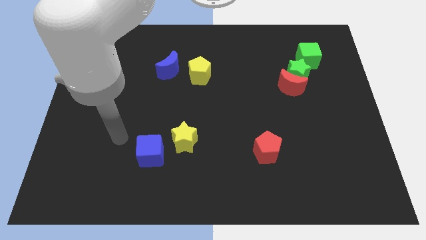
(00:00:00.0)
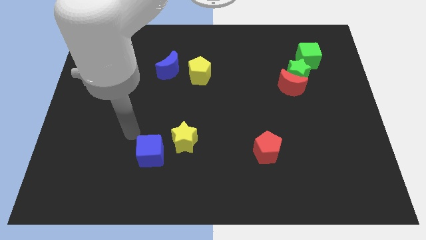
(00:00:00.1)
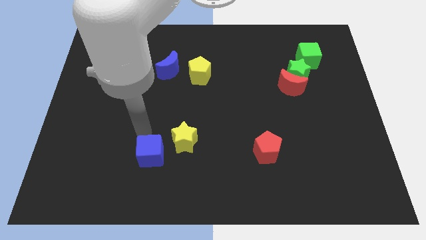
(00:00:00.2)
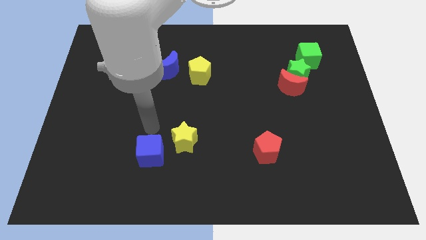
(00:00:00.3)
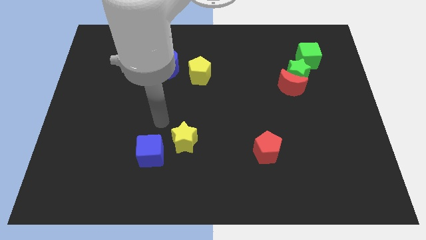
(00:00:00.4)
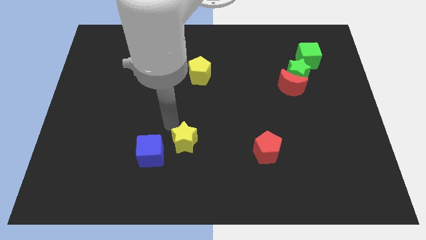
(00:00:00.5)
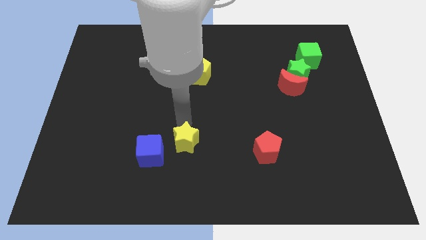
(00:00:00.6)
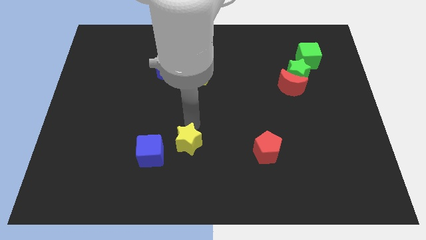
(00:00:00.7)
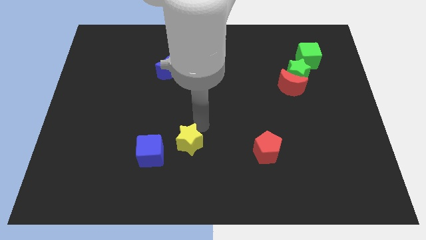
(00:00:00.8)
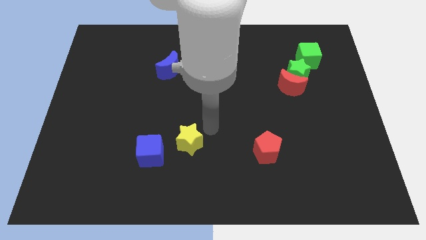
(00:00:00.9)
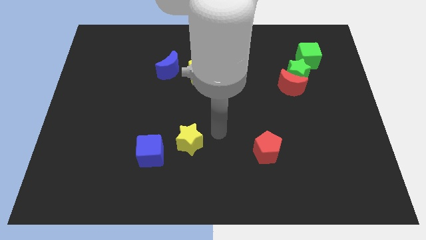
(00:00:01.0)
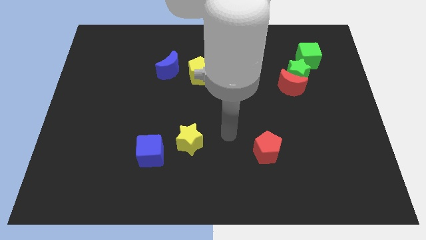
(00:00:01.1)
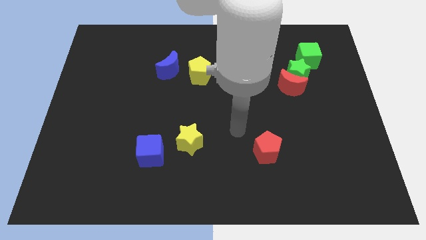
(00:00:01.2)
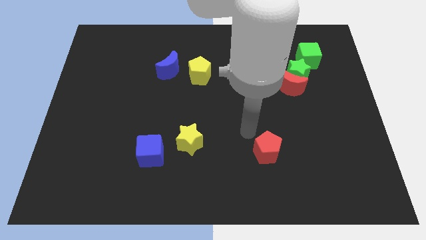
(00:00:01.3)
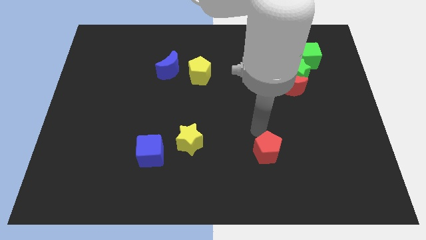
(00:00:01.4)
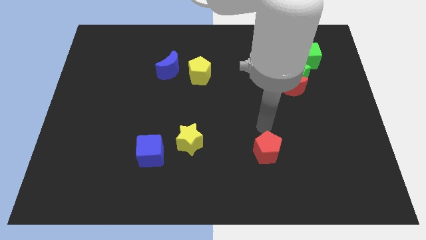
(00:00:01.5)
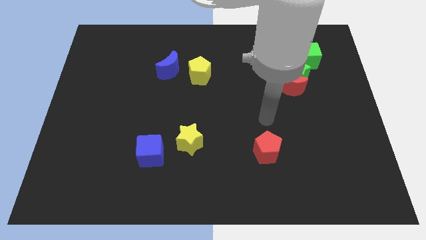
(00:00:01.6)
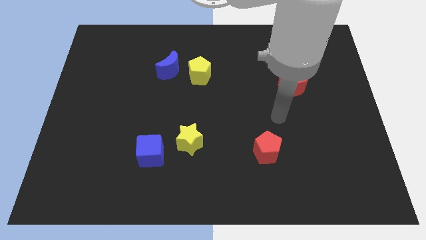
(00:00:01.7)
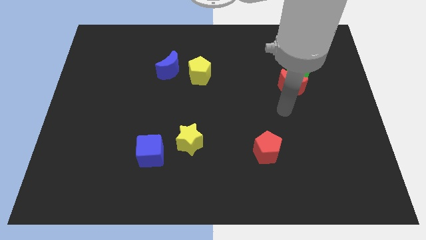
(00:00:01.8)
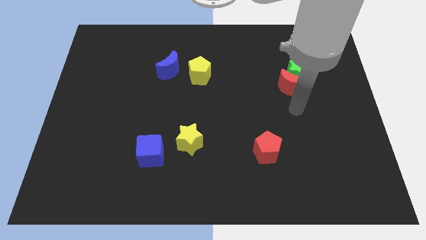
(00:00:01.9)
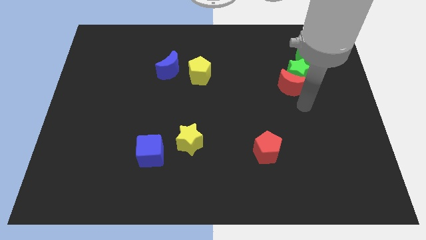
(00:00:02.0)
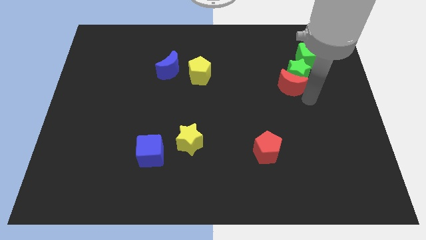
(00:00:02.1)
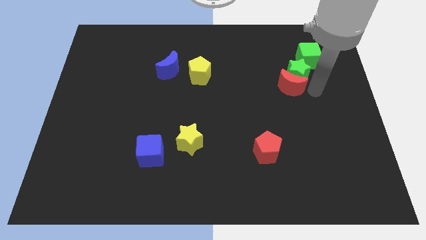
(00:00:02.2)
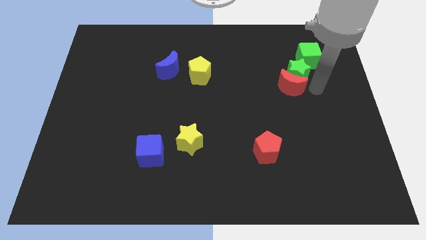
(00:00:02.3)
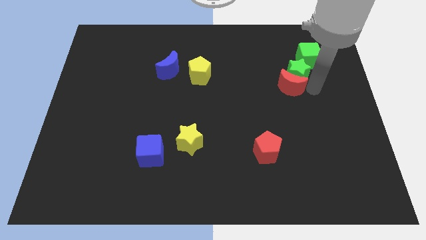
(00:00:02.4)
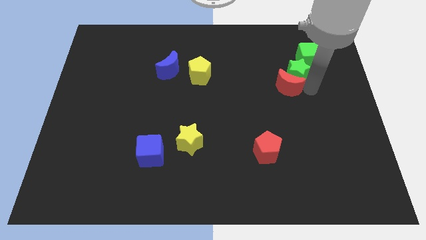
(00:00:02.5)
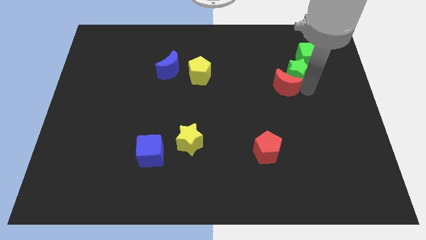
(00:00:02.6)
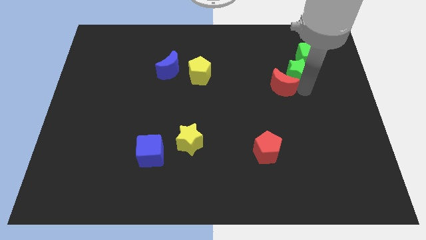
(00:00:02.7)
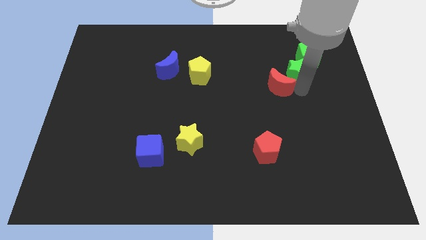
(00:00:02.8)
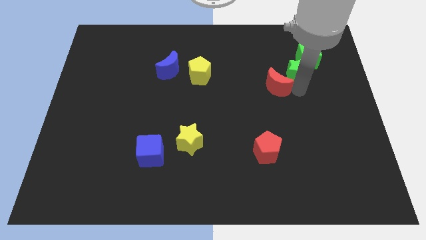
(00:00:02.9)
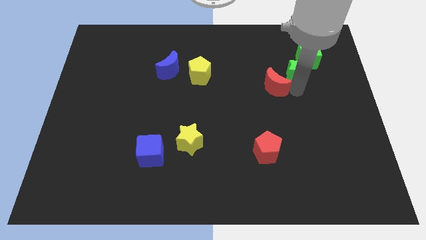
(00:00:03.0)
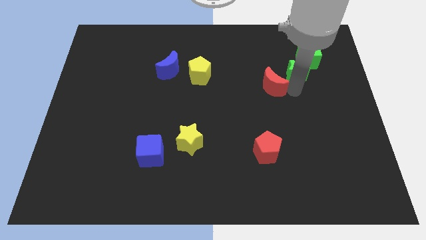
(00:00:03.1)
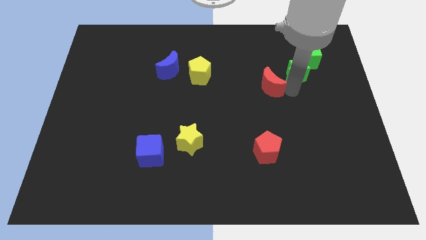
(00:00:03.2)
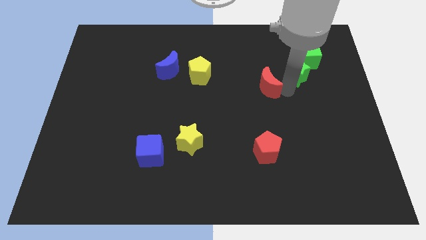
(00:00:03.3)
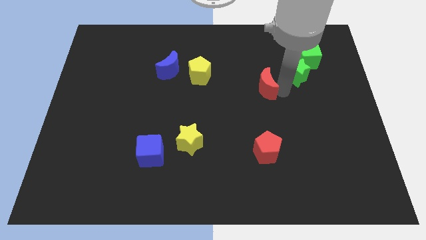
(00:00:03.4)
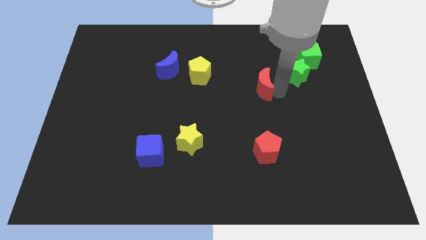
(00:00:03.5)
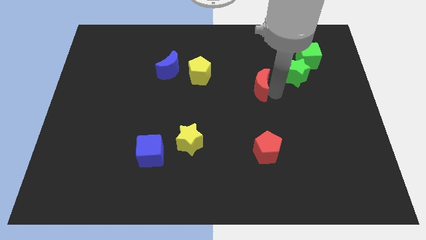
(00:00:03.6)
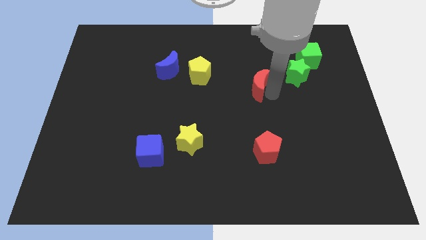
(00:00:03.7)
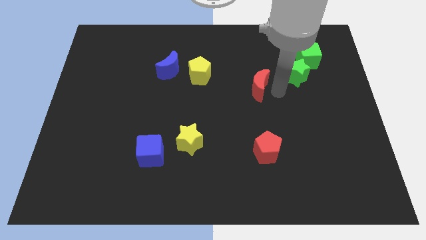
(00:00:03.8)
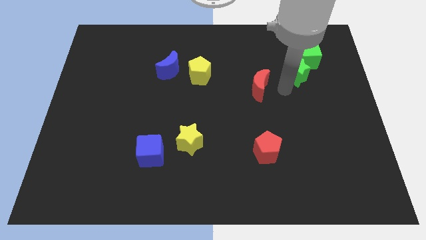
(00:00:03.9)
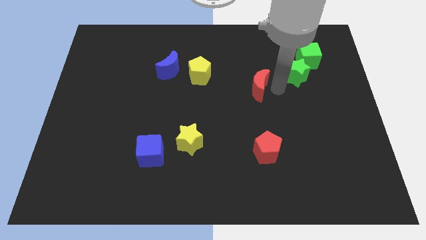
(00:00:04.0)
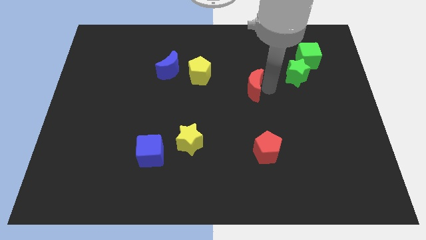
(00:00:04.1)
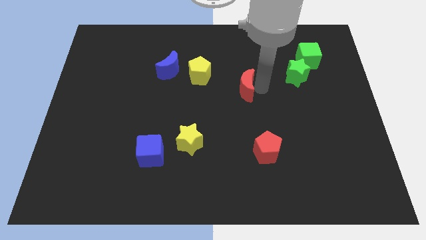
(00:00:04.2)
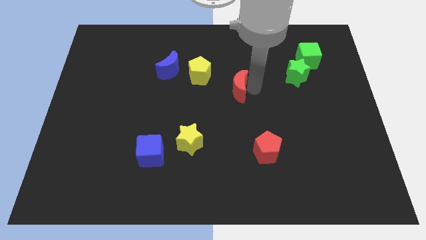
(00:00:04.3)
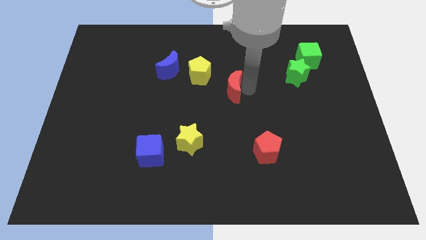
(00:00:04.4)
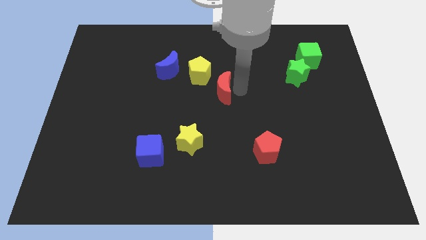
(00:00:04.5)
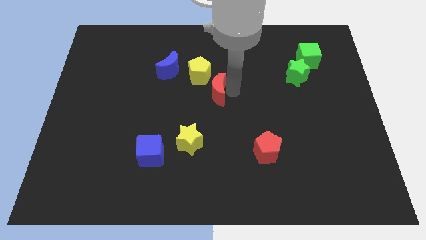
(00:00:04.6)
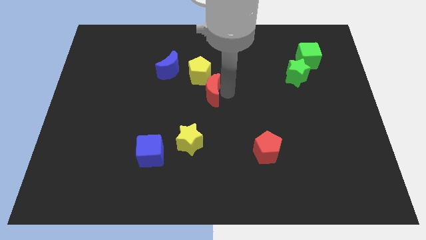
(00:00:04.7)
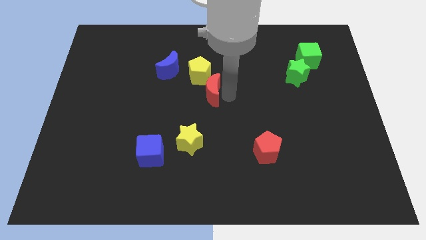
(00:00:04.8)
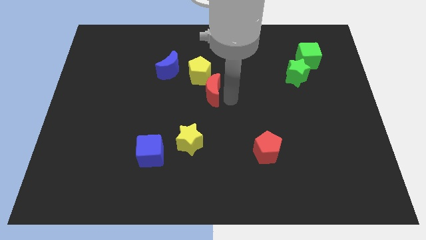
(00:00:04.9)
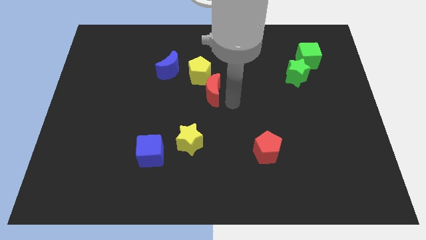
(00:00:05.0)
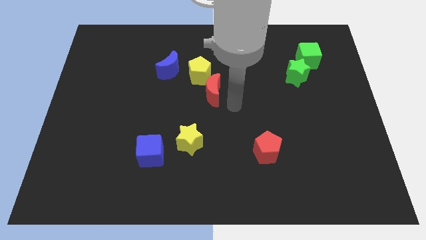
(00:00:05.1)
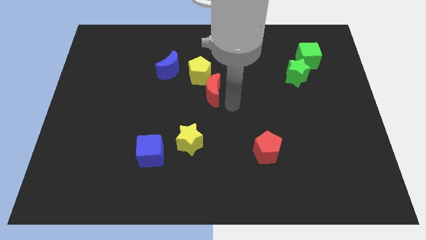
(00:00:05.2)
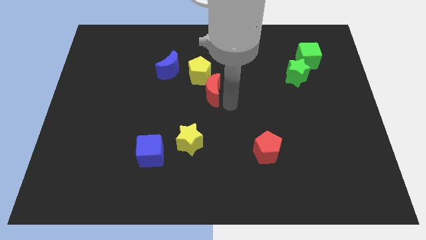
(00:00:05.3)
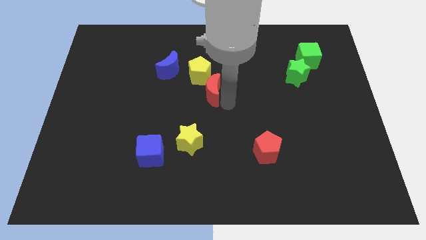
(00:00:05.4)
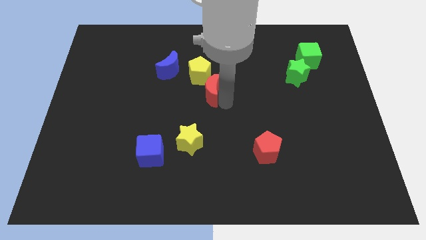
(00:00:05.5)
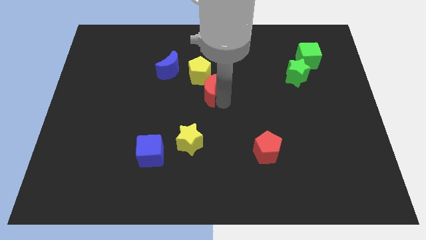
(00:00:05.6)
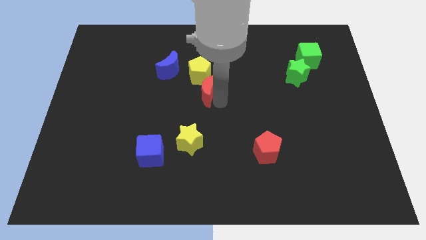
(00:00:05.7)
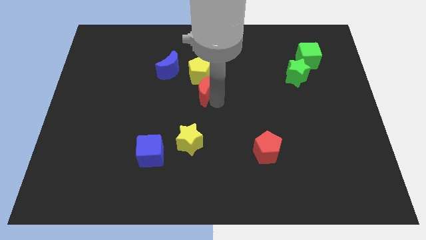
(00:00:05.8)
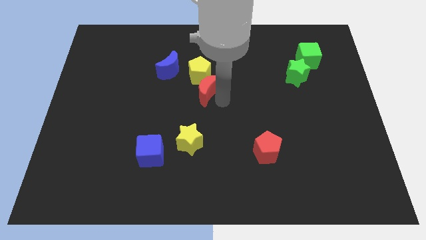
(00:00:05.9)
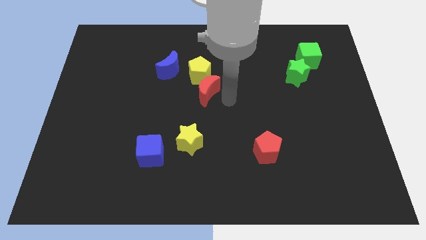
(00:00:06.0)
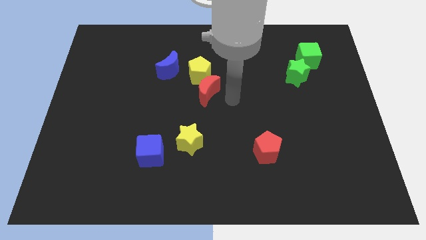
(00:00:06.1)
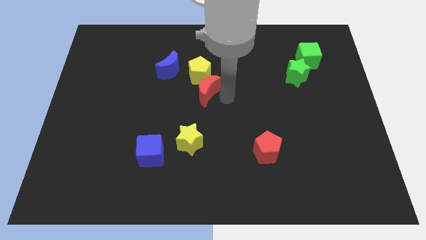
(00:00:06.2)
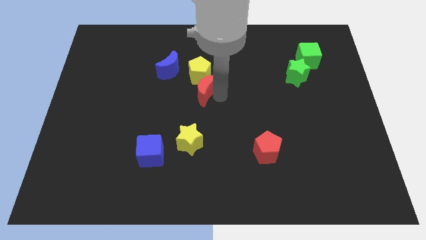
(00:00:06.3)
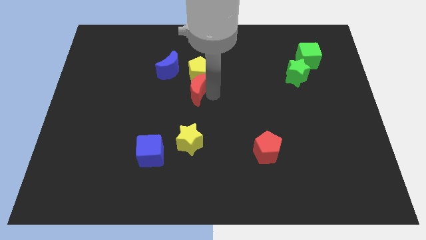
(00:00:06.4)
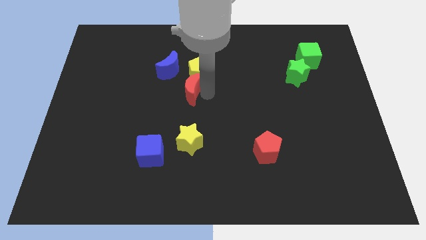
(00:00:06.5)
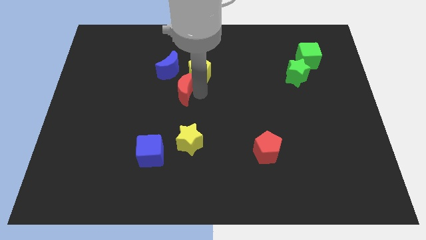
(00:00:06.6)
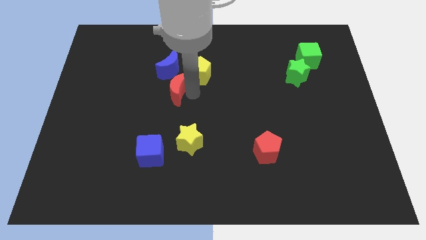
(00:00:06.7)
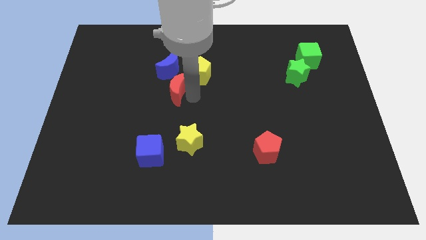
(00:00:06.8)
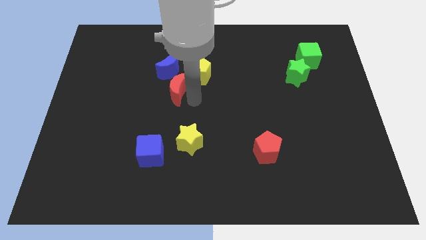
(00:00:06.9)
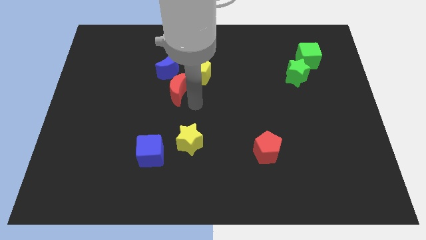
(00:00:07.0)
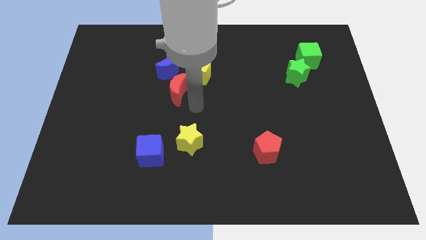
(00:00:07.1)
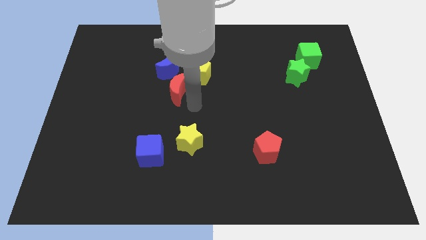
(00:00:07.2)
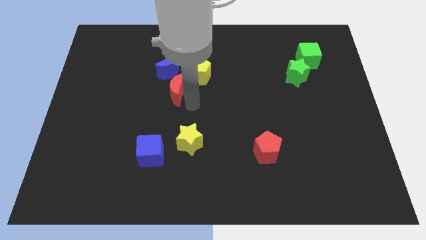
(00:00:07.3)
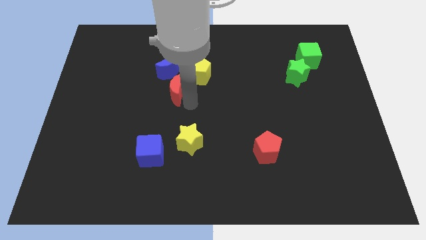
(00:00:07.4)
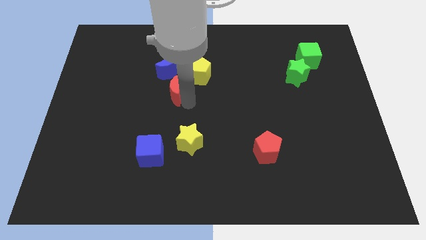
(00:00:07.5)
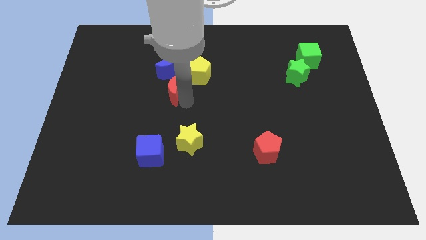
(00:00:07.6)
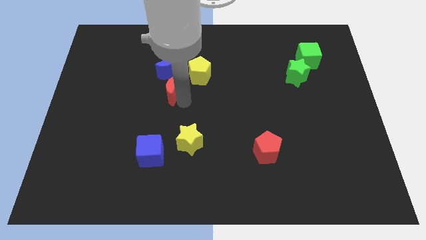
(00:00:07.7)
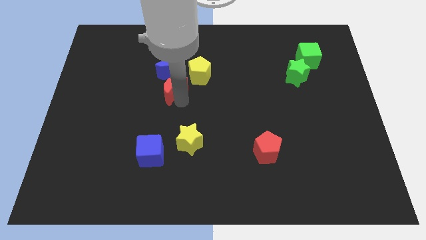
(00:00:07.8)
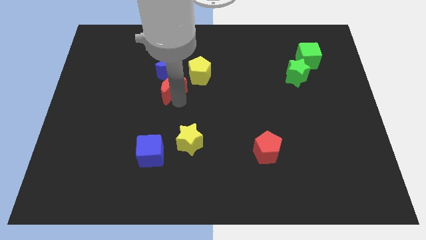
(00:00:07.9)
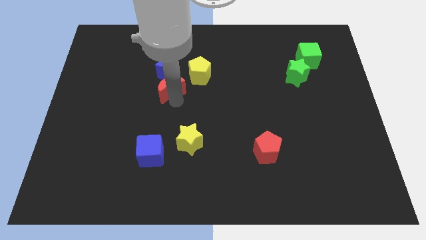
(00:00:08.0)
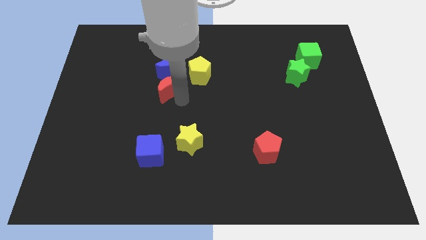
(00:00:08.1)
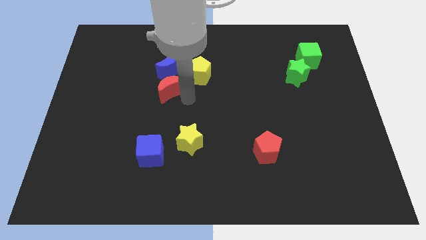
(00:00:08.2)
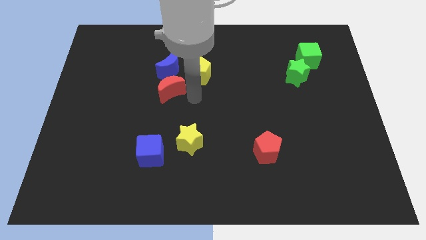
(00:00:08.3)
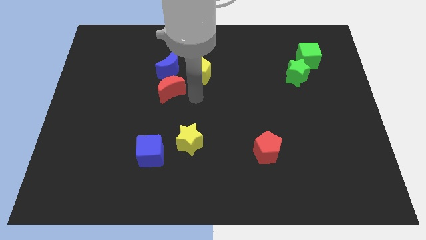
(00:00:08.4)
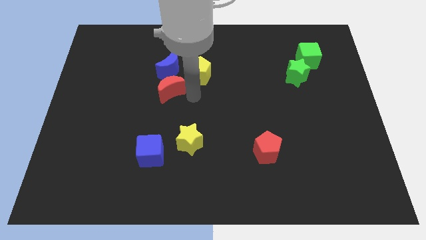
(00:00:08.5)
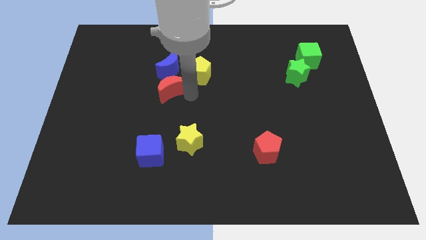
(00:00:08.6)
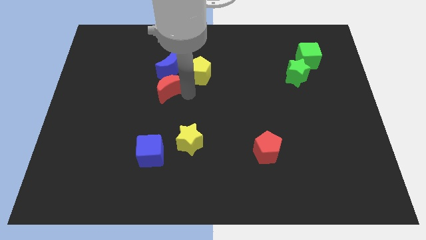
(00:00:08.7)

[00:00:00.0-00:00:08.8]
push the red moon to the bottom left of the blue moon
